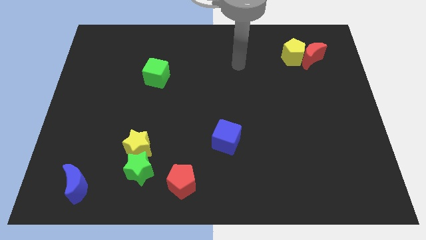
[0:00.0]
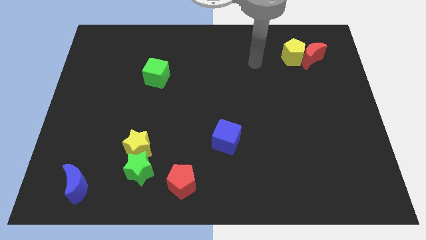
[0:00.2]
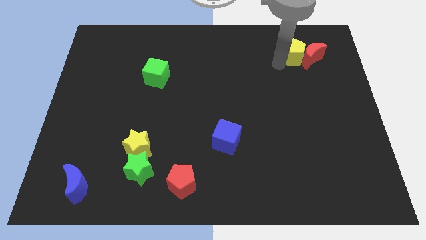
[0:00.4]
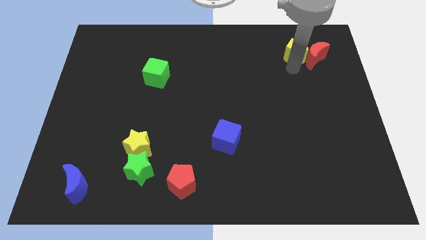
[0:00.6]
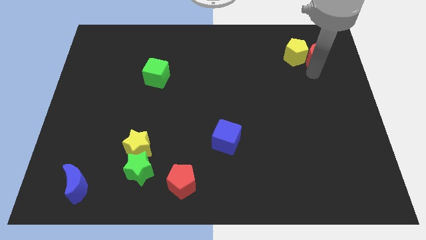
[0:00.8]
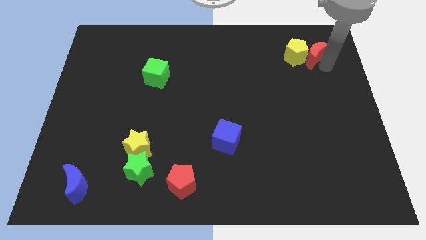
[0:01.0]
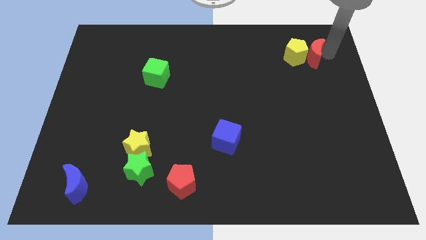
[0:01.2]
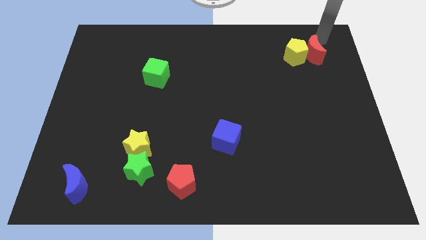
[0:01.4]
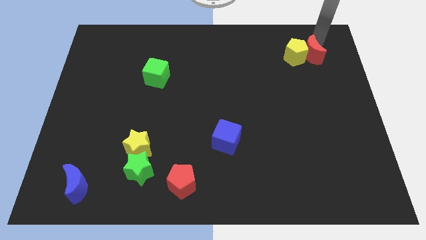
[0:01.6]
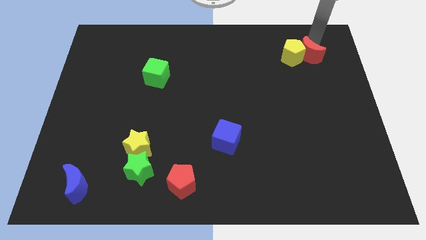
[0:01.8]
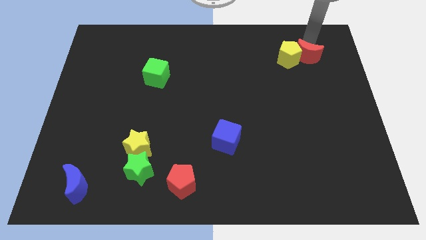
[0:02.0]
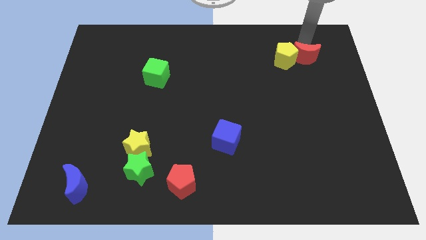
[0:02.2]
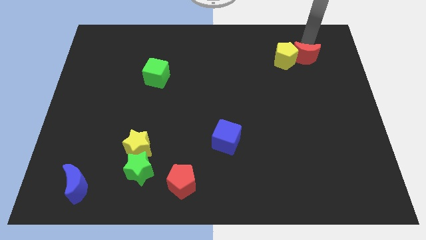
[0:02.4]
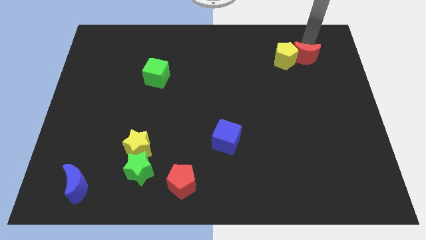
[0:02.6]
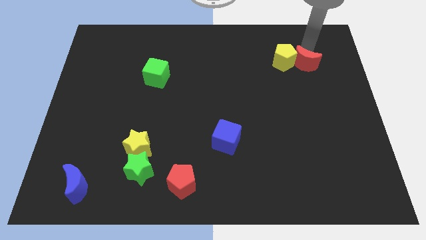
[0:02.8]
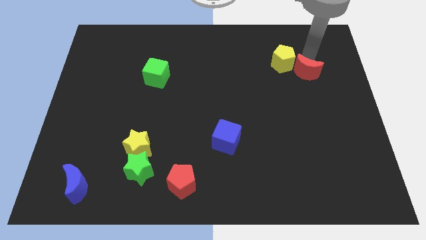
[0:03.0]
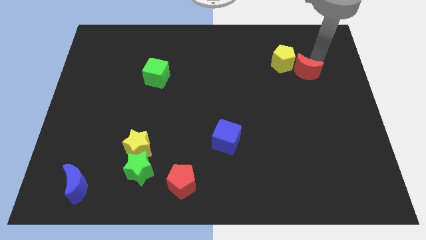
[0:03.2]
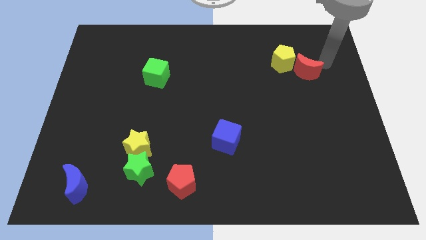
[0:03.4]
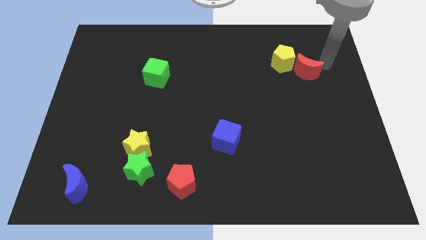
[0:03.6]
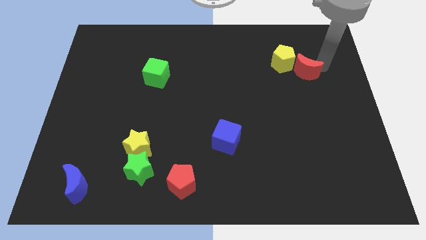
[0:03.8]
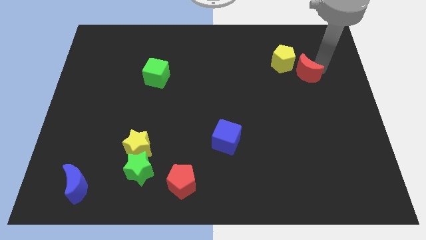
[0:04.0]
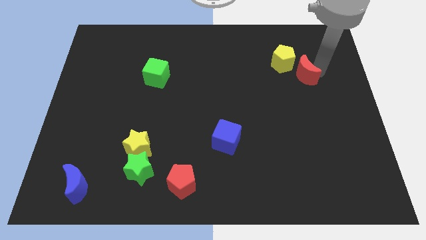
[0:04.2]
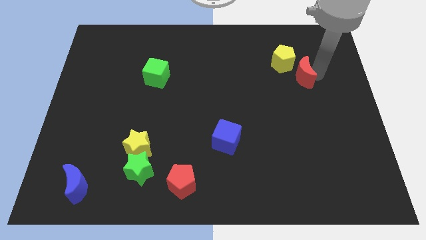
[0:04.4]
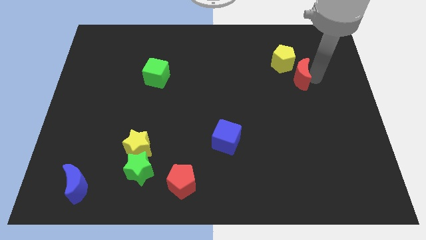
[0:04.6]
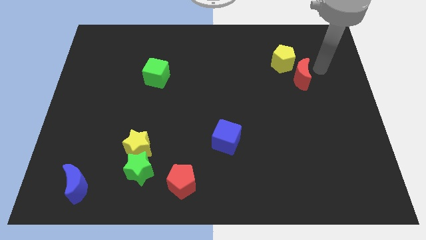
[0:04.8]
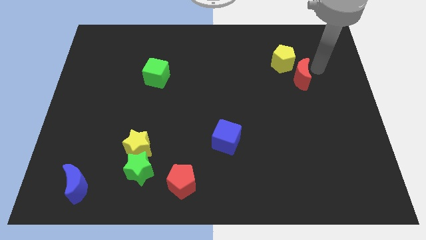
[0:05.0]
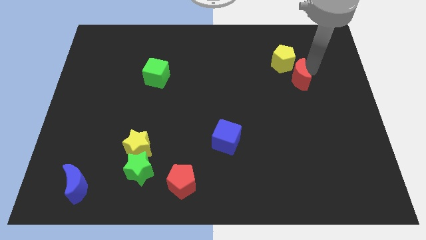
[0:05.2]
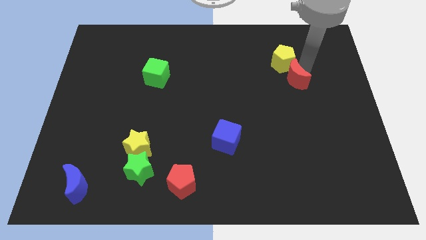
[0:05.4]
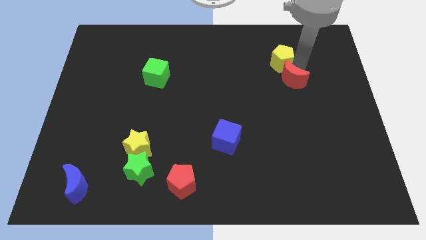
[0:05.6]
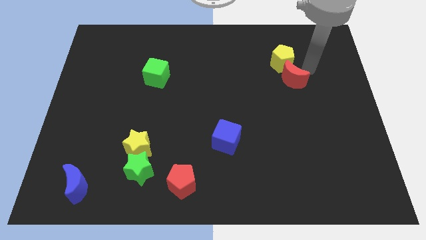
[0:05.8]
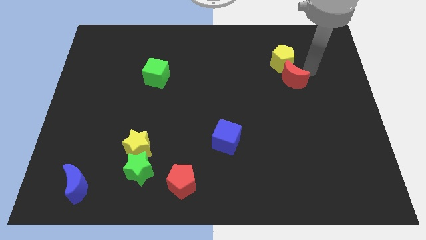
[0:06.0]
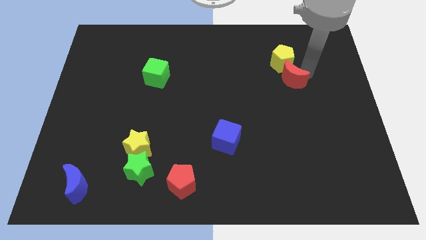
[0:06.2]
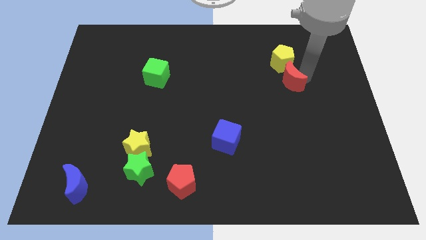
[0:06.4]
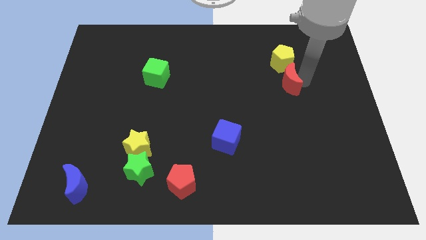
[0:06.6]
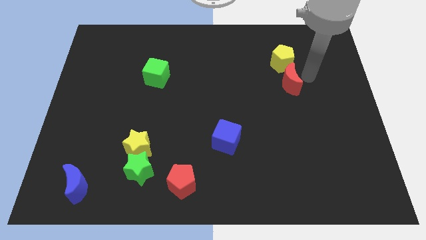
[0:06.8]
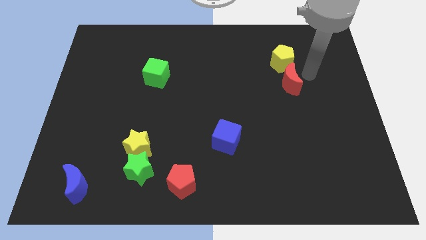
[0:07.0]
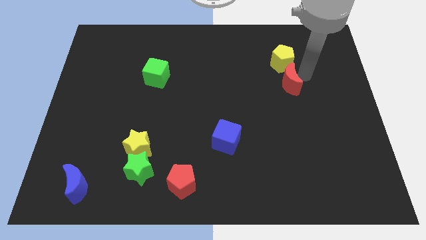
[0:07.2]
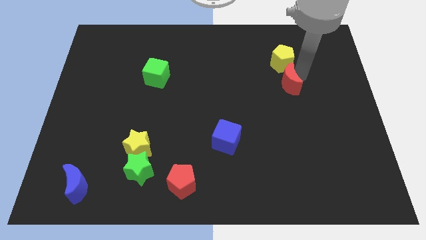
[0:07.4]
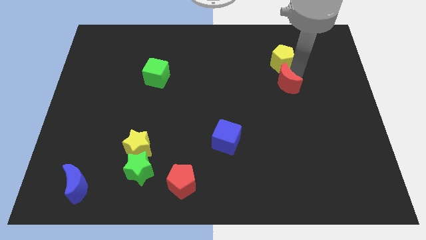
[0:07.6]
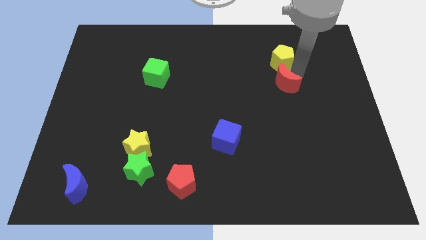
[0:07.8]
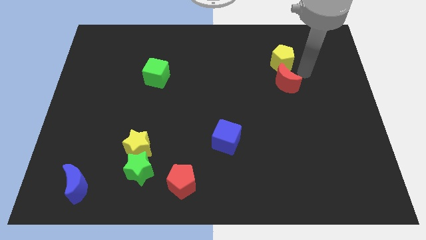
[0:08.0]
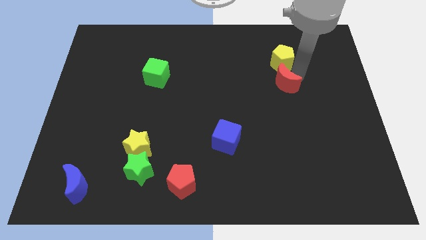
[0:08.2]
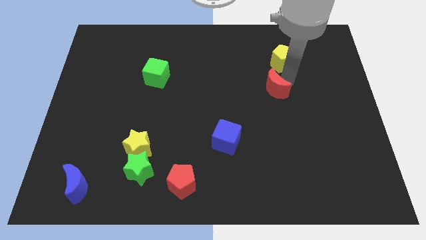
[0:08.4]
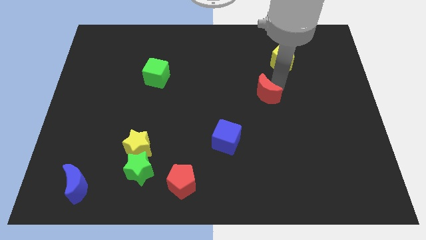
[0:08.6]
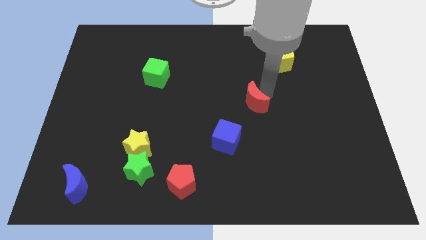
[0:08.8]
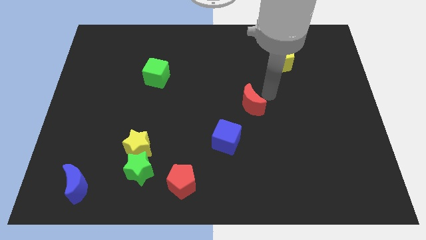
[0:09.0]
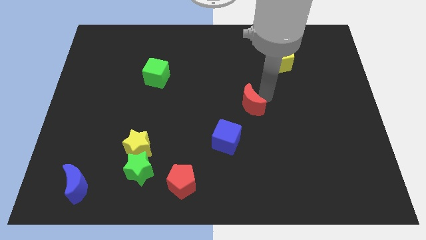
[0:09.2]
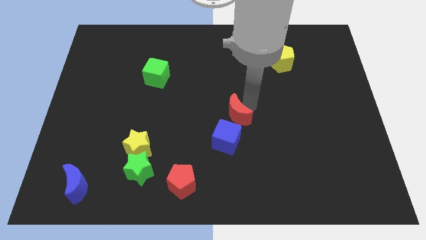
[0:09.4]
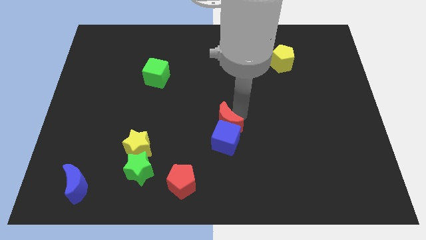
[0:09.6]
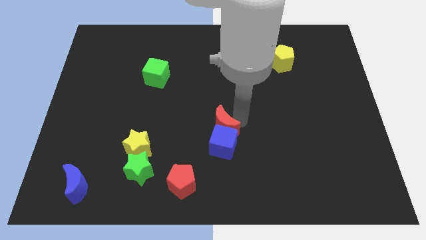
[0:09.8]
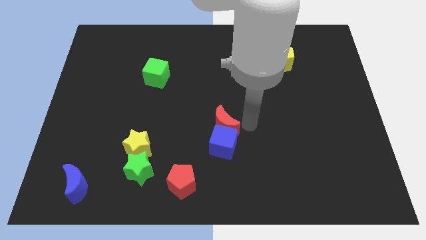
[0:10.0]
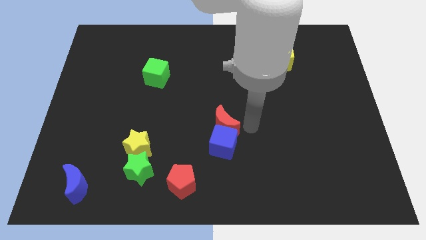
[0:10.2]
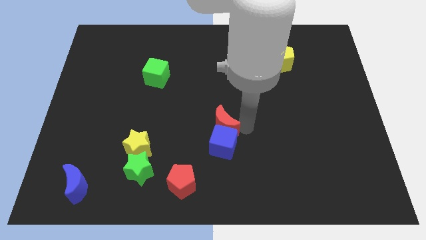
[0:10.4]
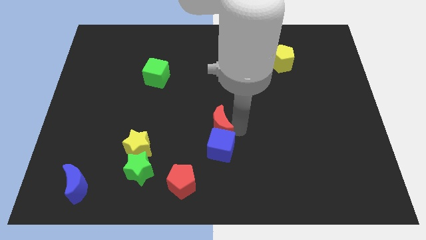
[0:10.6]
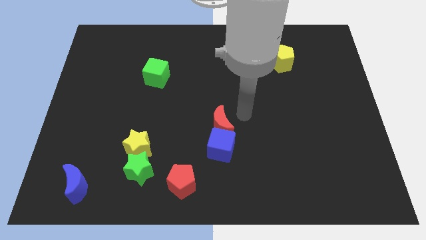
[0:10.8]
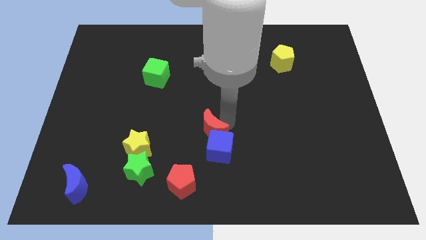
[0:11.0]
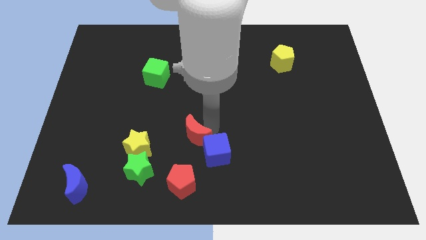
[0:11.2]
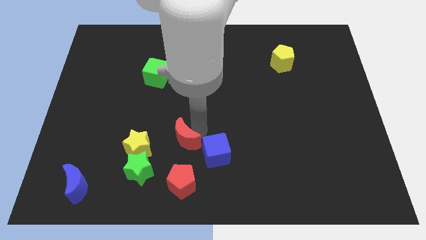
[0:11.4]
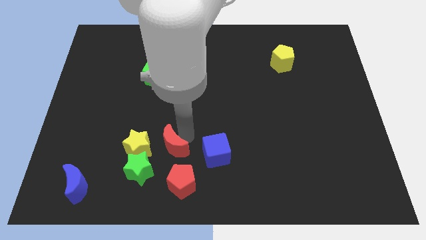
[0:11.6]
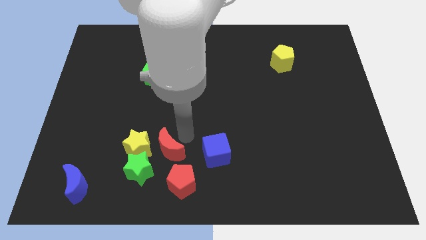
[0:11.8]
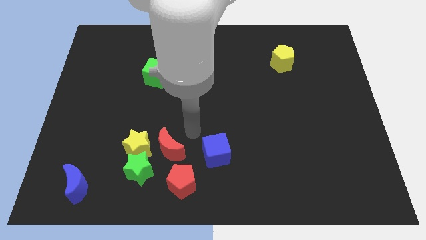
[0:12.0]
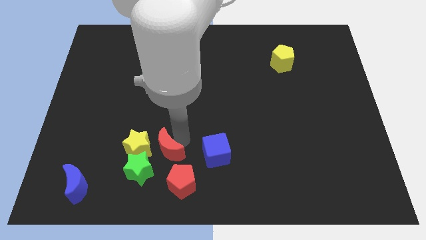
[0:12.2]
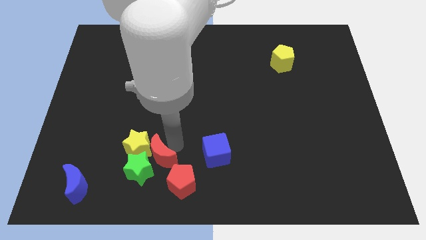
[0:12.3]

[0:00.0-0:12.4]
slide the red moon to the green star

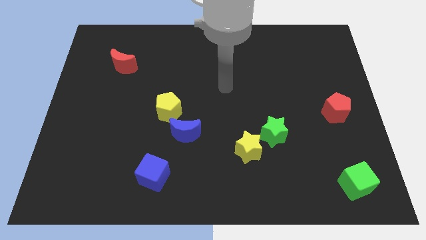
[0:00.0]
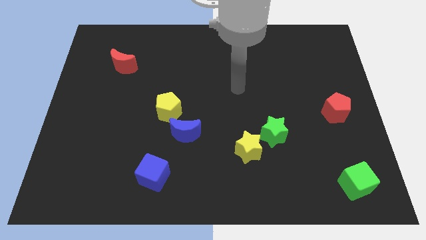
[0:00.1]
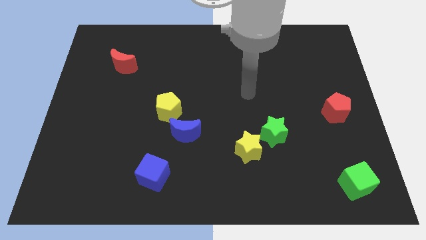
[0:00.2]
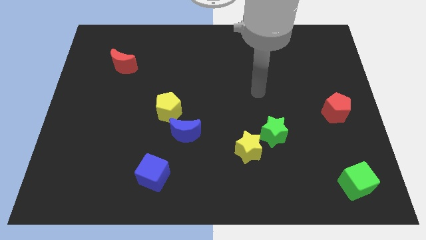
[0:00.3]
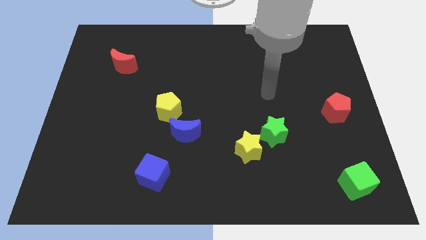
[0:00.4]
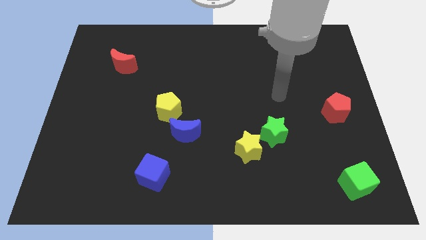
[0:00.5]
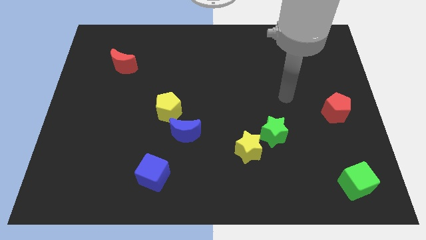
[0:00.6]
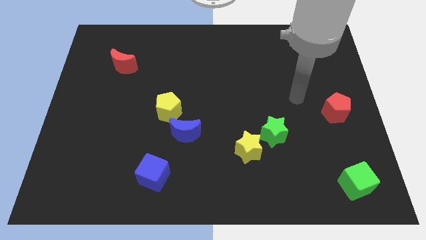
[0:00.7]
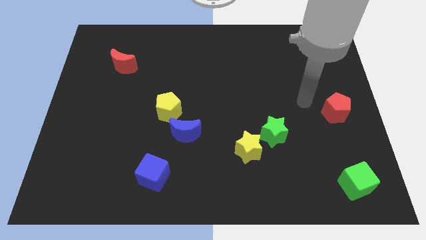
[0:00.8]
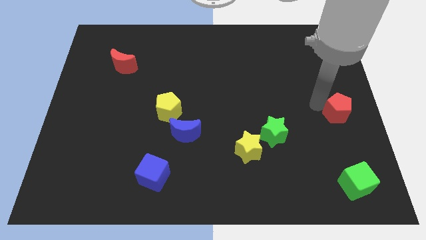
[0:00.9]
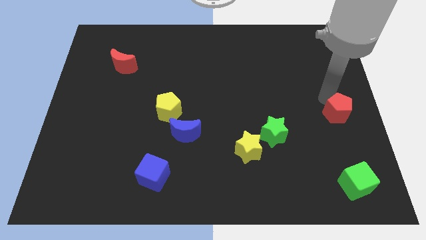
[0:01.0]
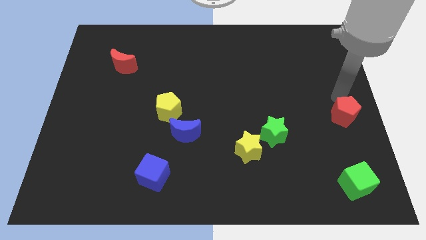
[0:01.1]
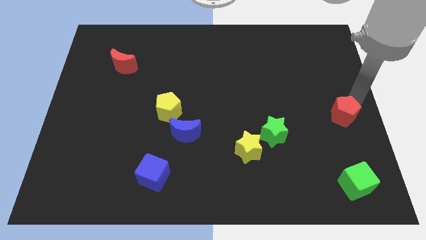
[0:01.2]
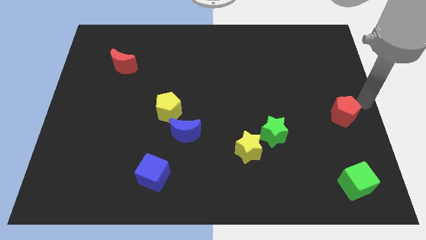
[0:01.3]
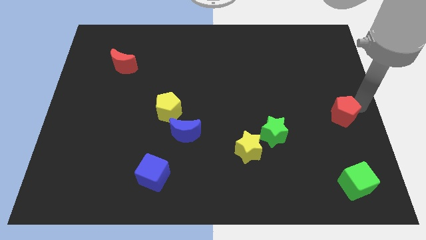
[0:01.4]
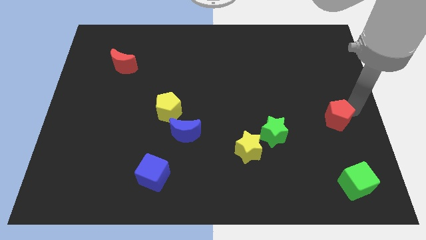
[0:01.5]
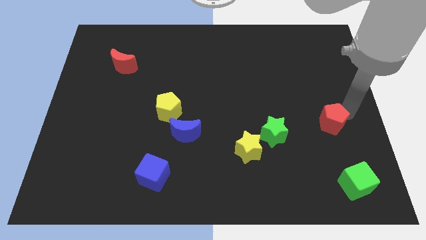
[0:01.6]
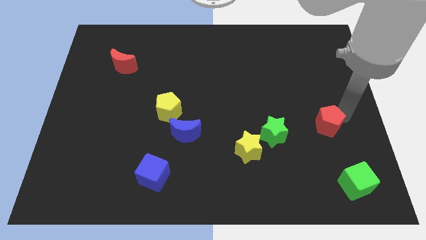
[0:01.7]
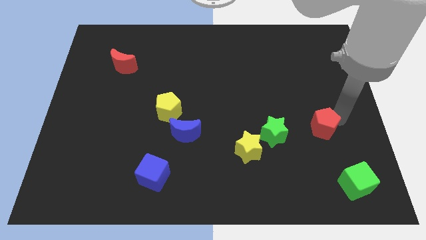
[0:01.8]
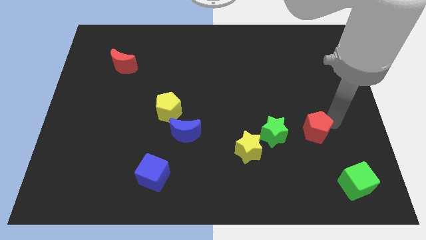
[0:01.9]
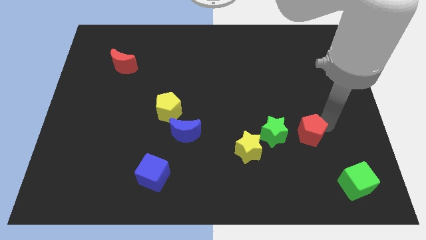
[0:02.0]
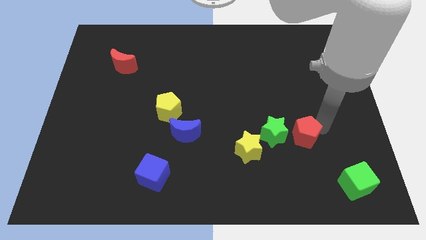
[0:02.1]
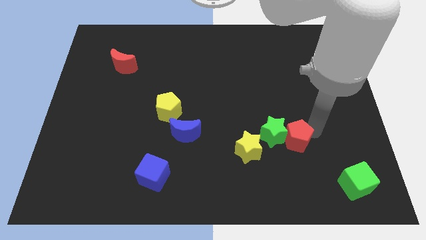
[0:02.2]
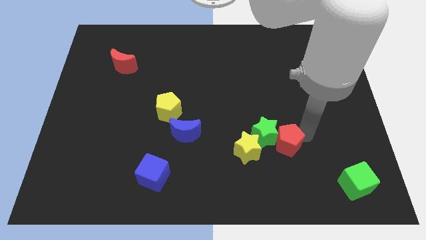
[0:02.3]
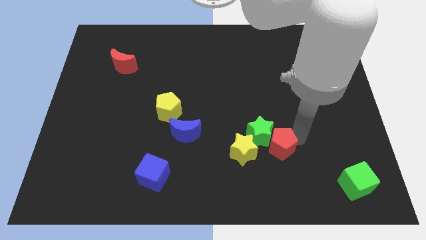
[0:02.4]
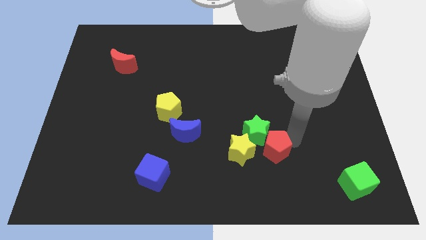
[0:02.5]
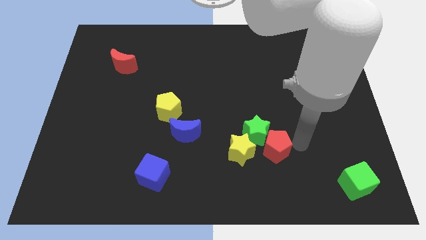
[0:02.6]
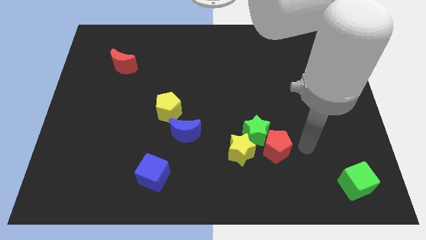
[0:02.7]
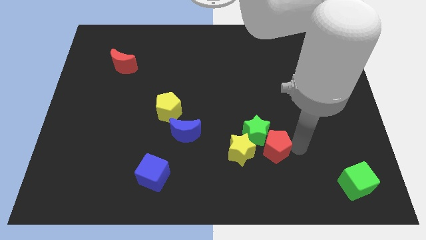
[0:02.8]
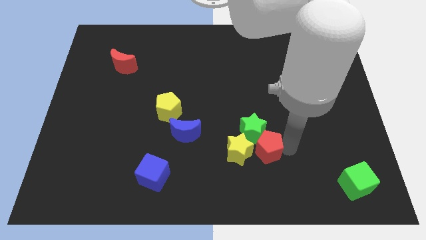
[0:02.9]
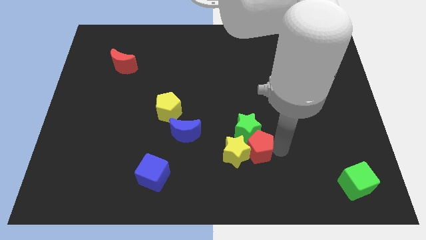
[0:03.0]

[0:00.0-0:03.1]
push the red pentagon next to the yellow star
